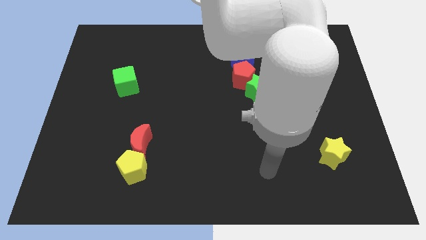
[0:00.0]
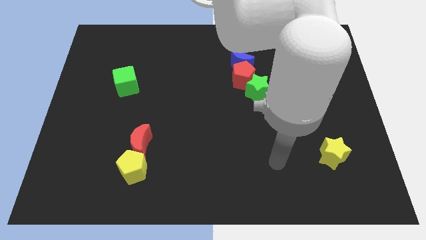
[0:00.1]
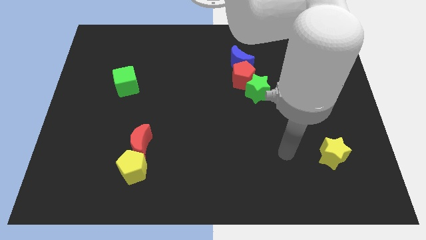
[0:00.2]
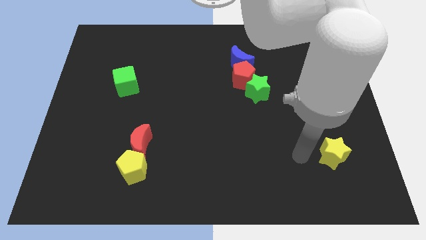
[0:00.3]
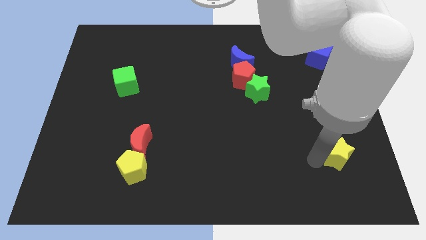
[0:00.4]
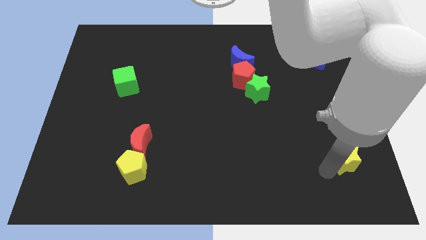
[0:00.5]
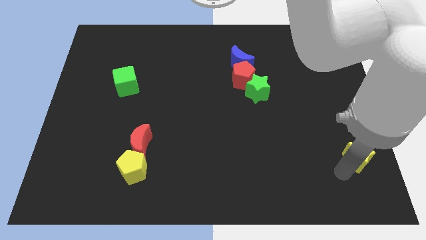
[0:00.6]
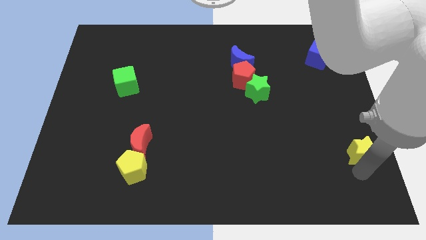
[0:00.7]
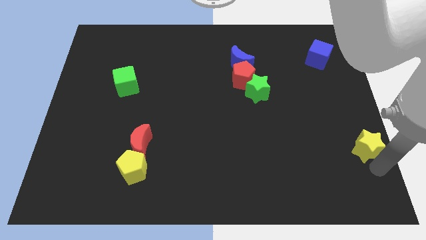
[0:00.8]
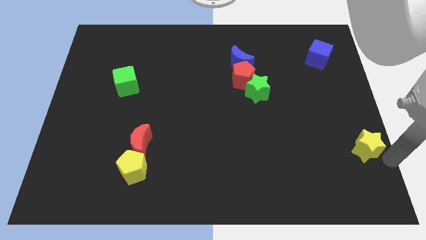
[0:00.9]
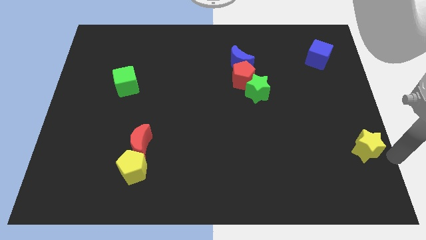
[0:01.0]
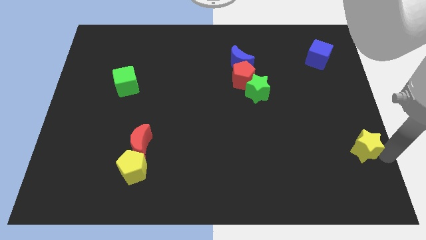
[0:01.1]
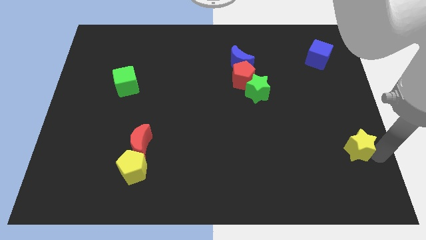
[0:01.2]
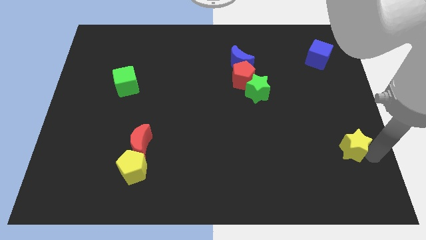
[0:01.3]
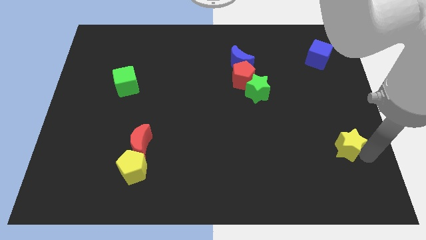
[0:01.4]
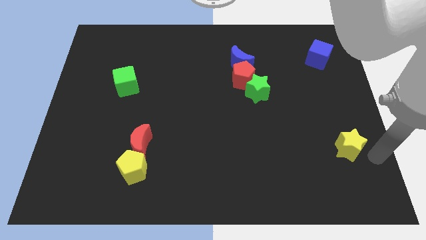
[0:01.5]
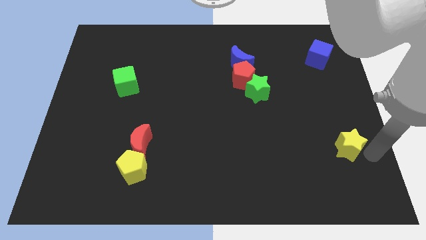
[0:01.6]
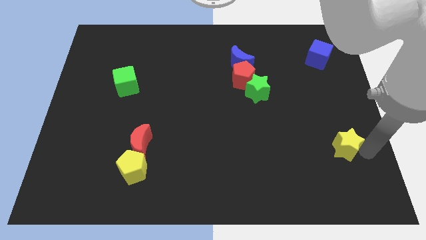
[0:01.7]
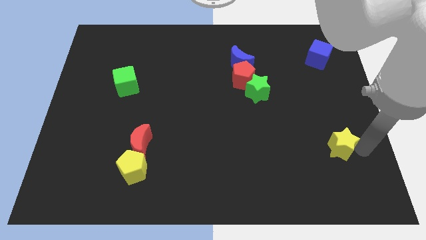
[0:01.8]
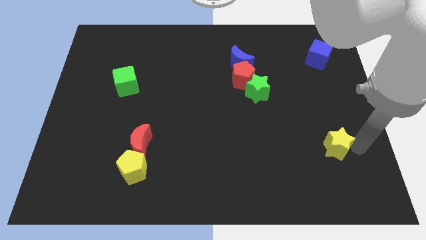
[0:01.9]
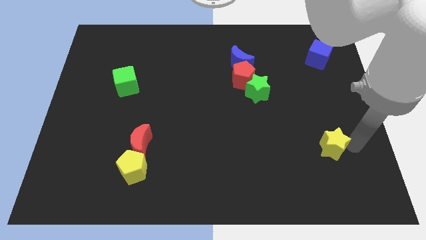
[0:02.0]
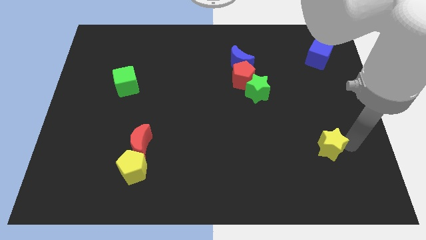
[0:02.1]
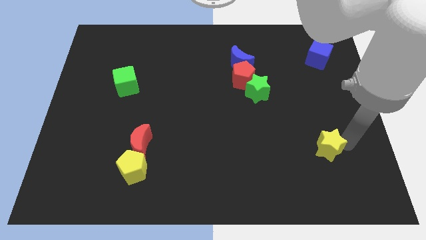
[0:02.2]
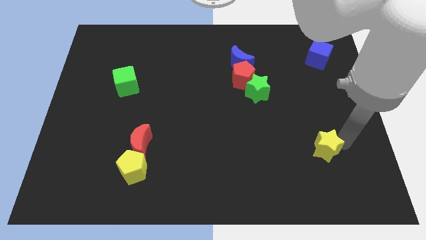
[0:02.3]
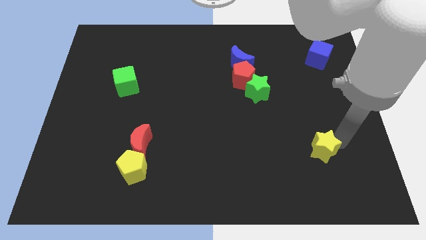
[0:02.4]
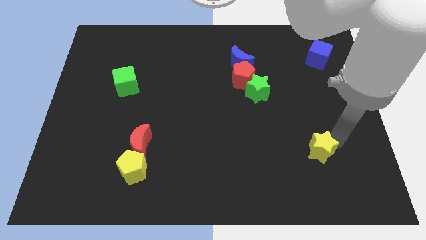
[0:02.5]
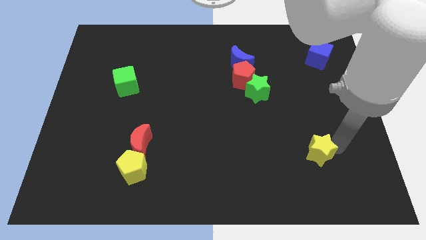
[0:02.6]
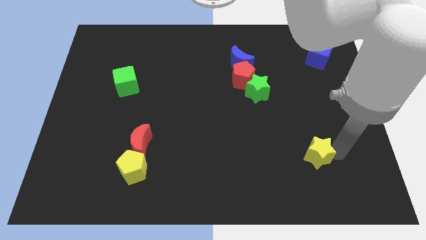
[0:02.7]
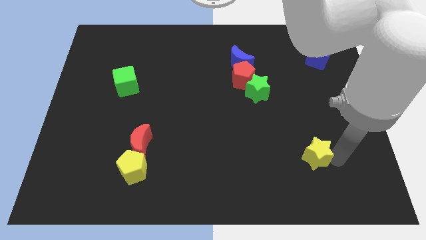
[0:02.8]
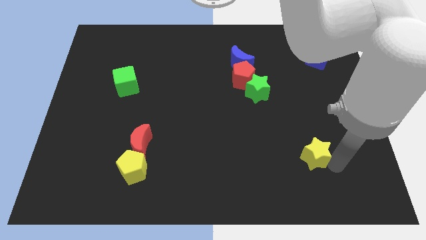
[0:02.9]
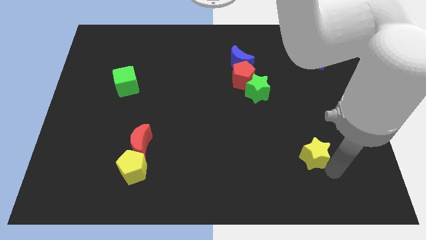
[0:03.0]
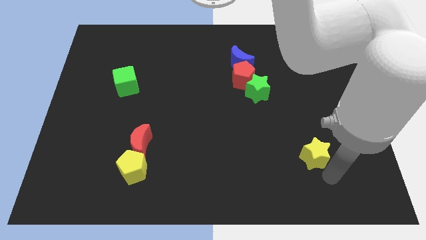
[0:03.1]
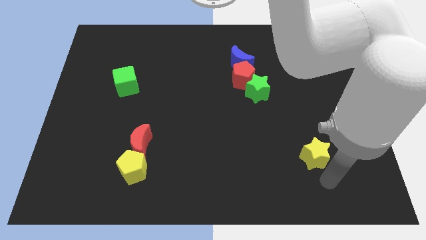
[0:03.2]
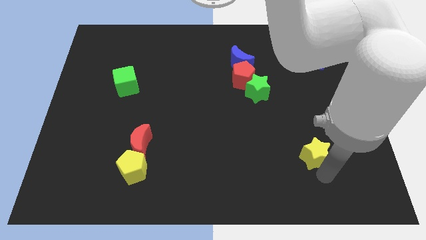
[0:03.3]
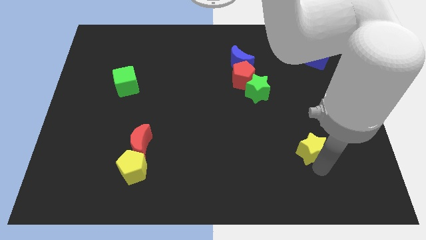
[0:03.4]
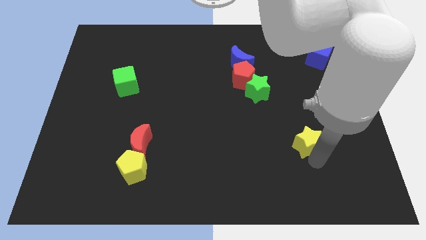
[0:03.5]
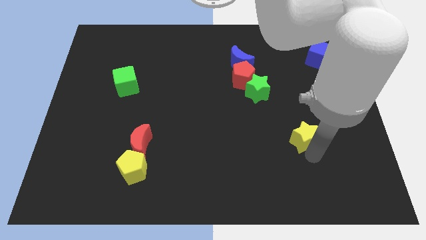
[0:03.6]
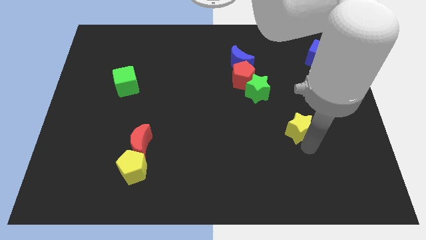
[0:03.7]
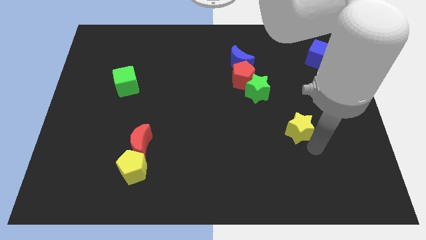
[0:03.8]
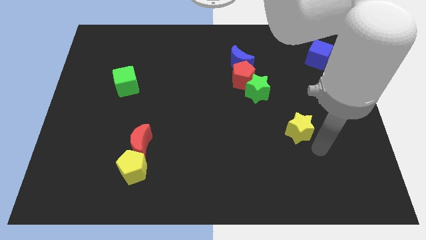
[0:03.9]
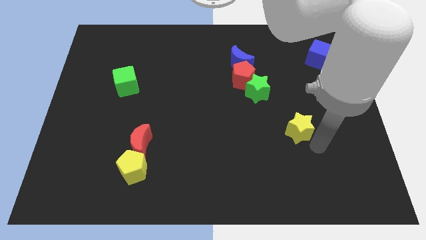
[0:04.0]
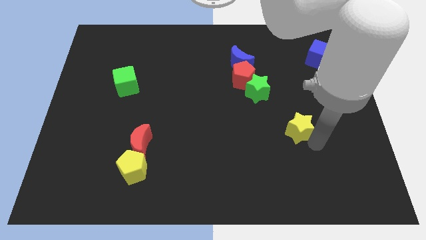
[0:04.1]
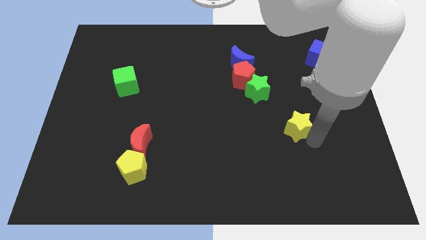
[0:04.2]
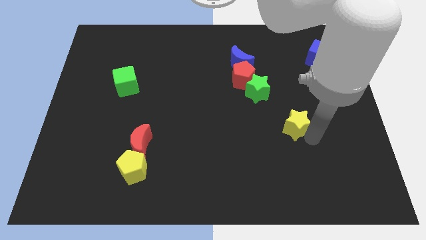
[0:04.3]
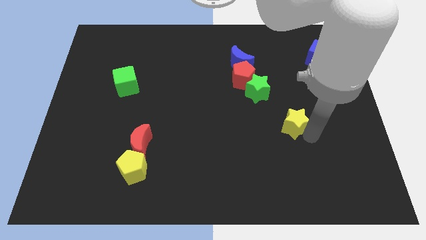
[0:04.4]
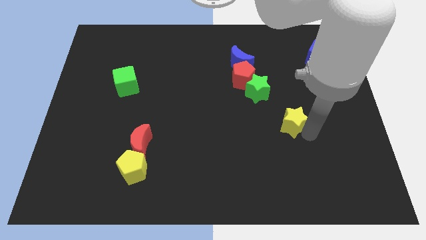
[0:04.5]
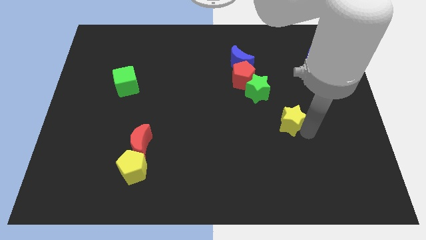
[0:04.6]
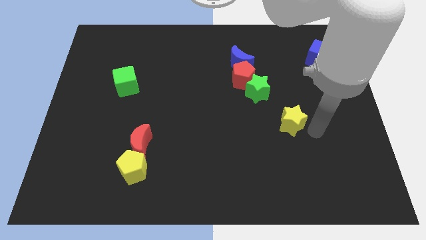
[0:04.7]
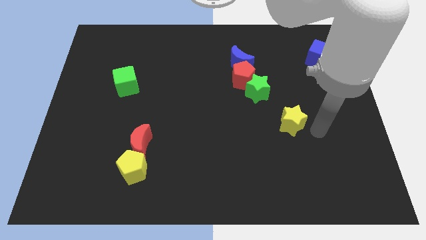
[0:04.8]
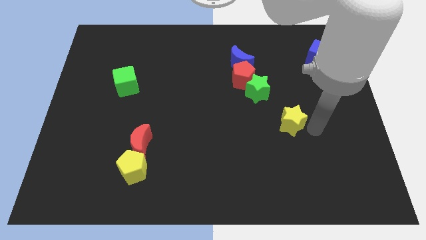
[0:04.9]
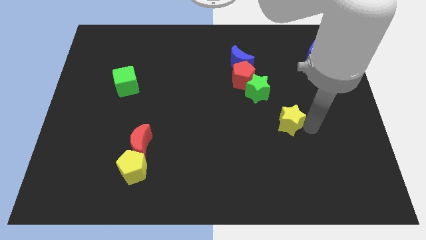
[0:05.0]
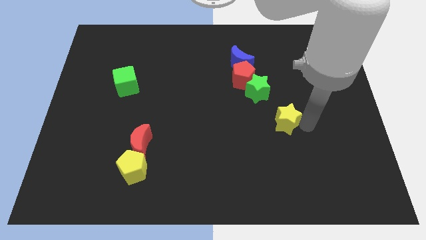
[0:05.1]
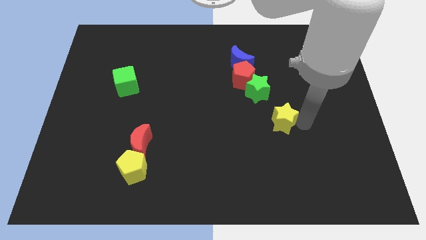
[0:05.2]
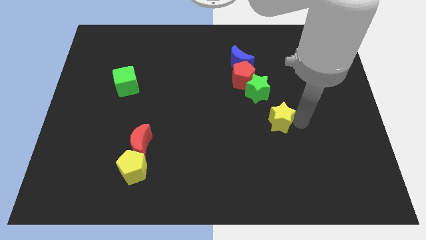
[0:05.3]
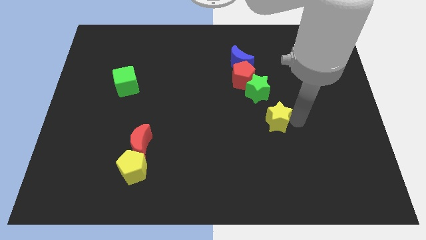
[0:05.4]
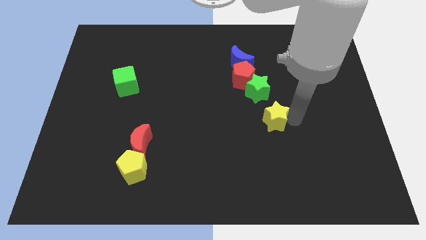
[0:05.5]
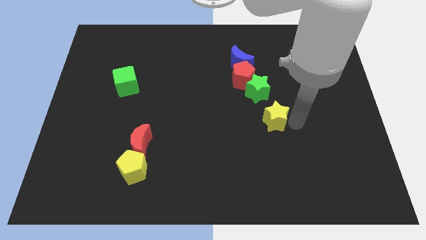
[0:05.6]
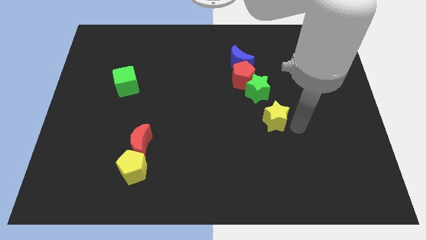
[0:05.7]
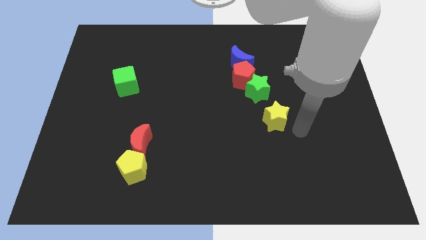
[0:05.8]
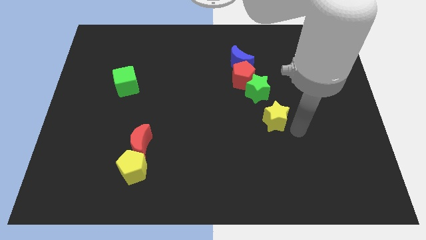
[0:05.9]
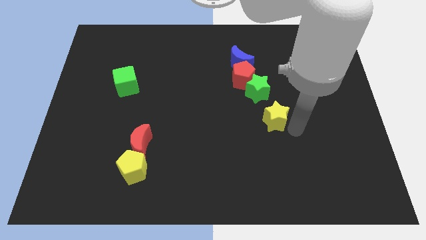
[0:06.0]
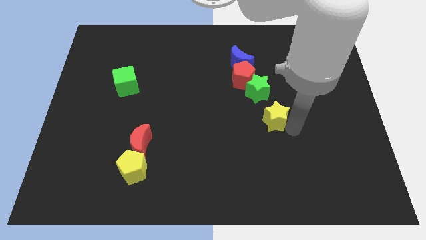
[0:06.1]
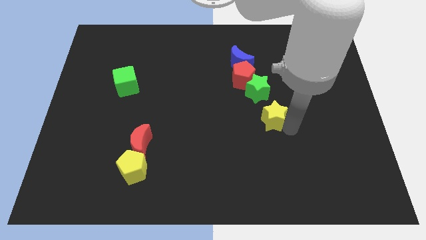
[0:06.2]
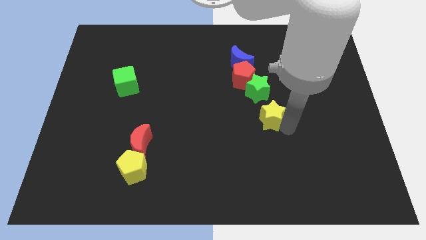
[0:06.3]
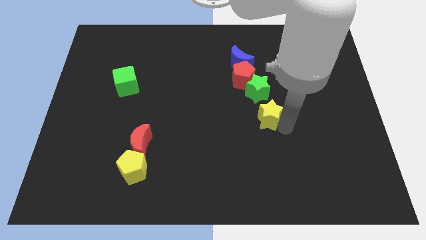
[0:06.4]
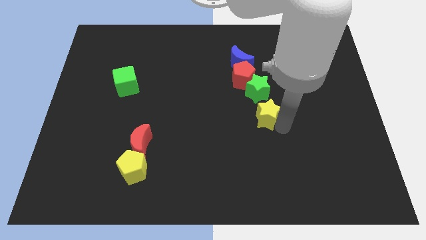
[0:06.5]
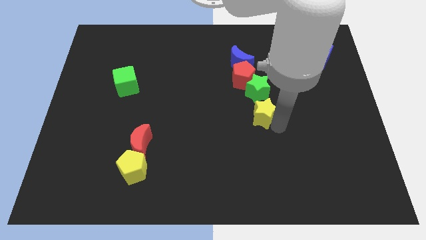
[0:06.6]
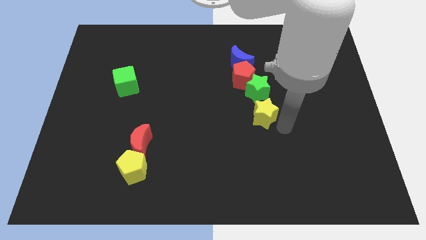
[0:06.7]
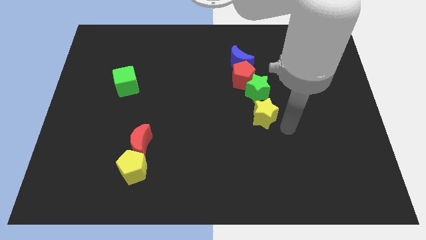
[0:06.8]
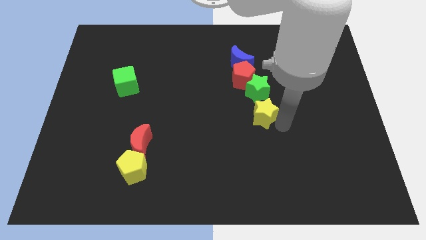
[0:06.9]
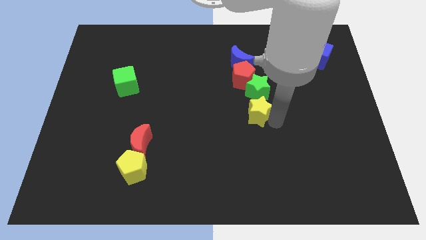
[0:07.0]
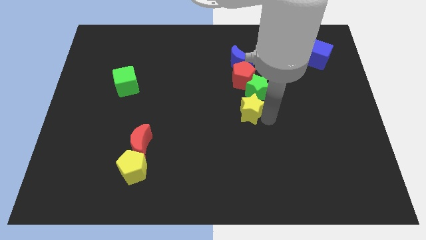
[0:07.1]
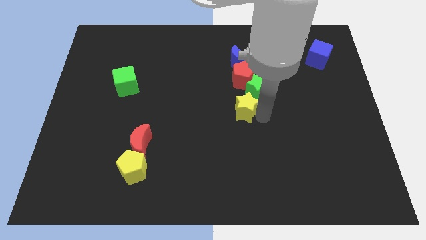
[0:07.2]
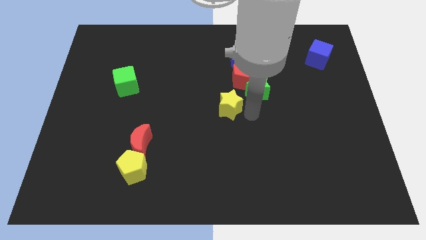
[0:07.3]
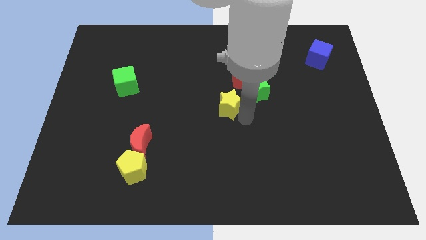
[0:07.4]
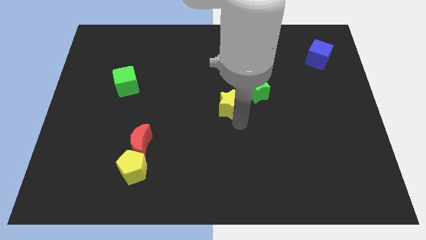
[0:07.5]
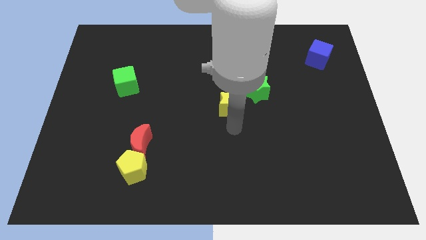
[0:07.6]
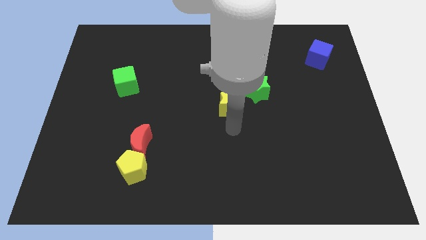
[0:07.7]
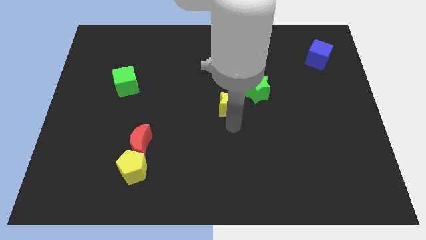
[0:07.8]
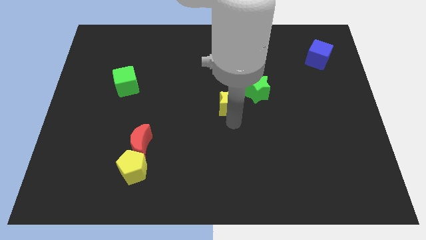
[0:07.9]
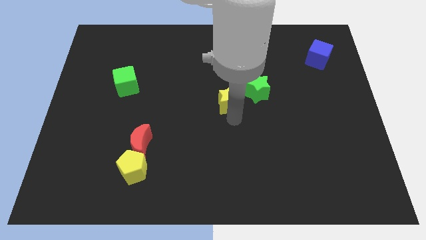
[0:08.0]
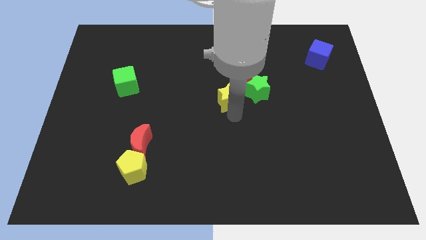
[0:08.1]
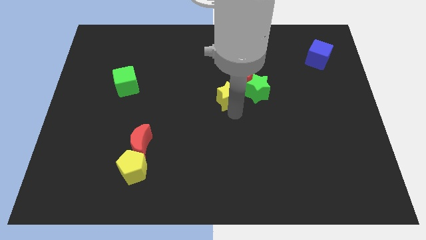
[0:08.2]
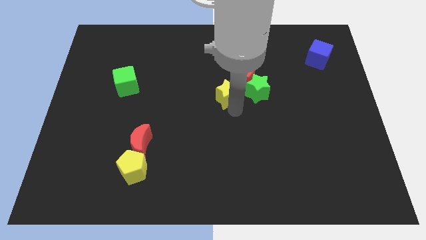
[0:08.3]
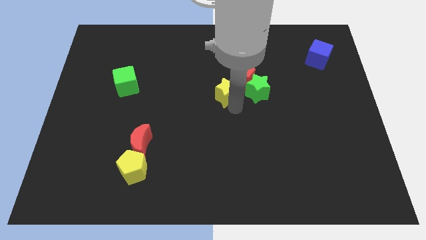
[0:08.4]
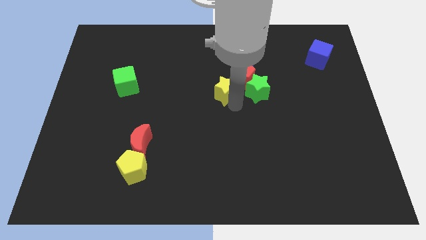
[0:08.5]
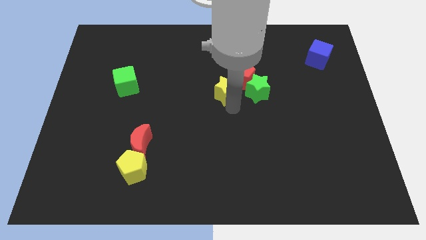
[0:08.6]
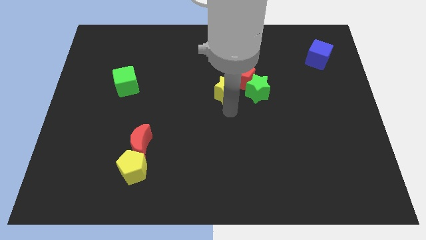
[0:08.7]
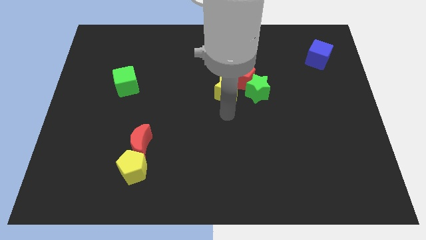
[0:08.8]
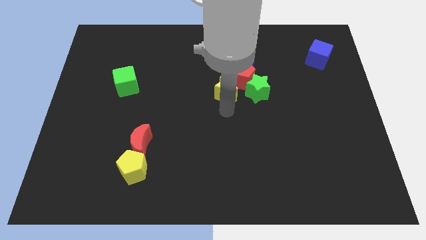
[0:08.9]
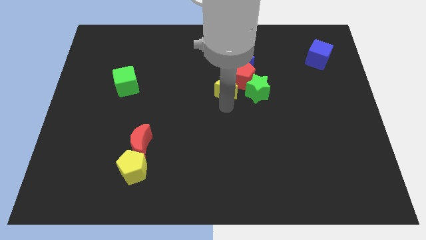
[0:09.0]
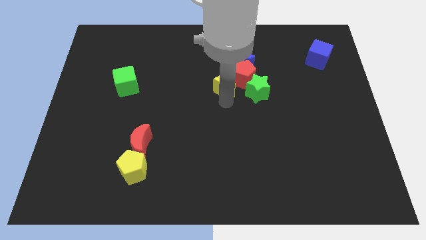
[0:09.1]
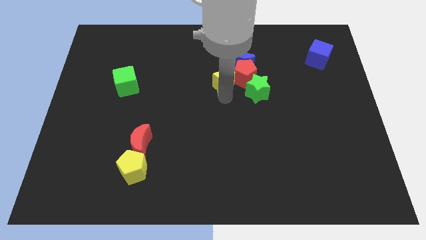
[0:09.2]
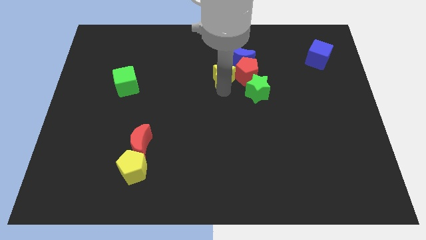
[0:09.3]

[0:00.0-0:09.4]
move the yellow star to the top left of the red pentagon
